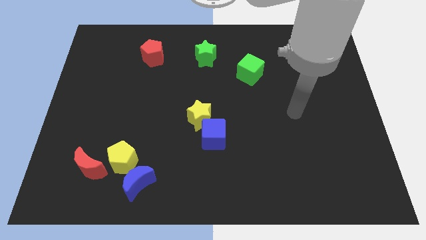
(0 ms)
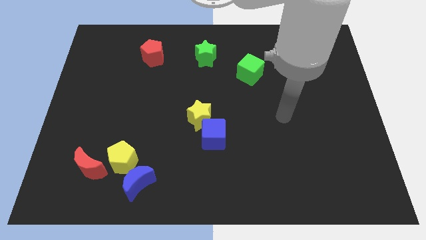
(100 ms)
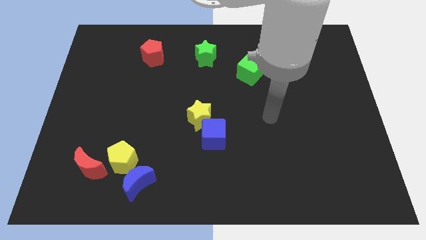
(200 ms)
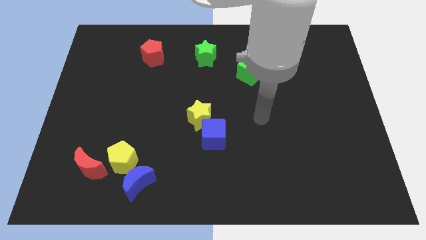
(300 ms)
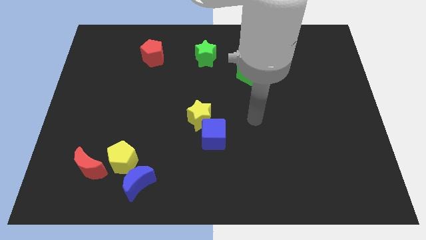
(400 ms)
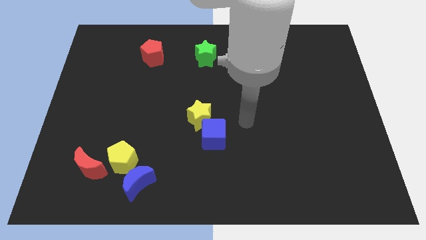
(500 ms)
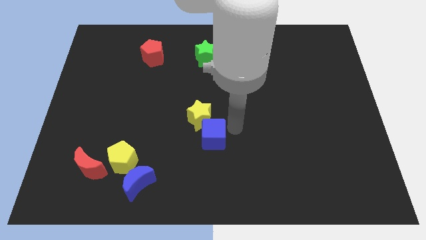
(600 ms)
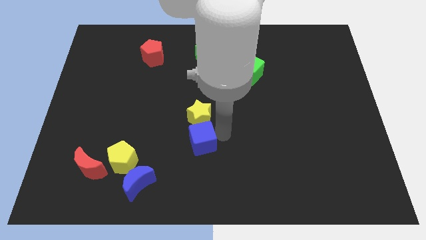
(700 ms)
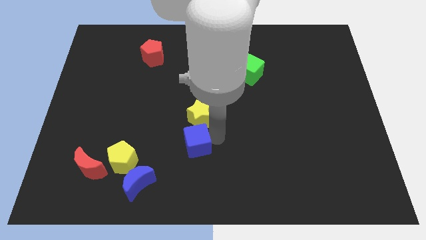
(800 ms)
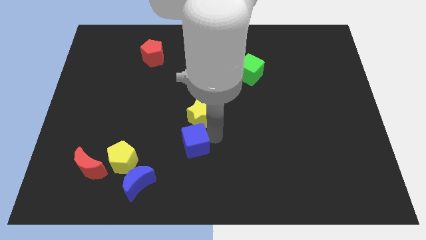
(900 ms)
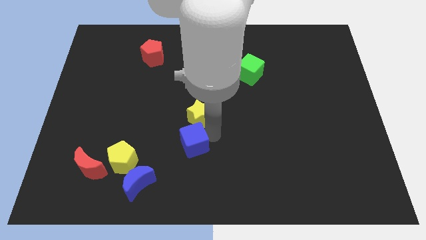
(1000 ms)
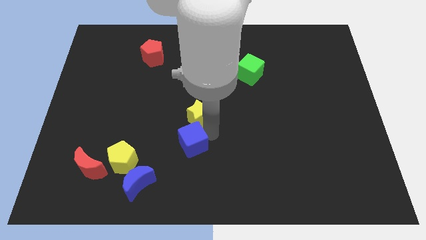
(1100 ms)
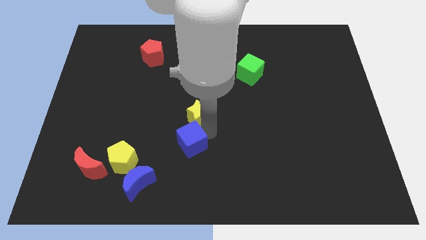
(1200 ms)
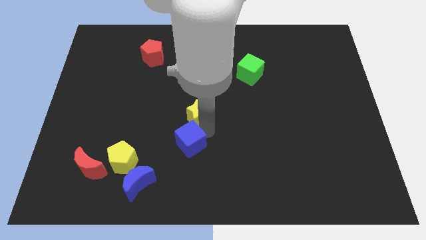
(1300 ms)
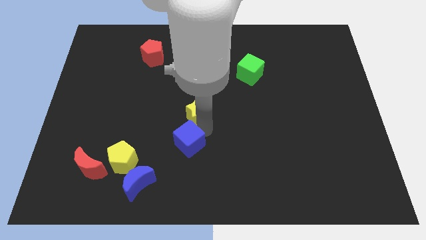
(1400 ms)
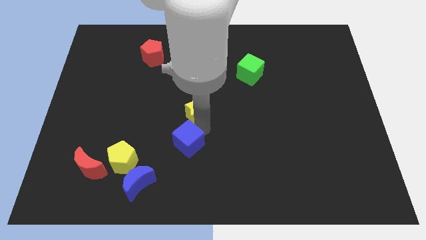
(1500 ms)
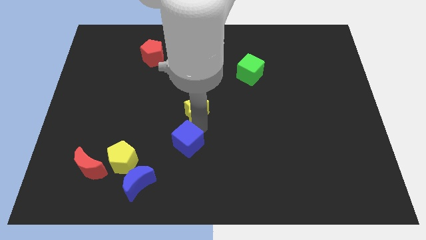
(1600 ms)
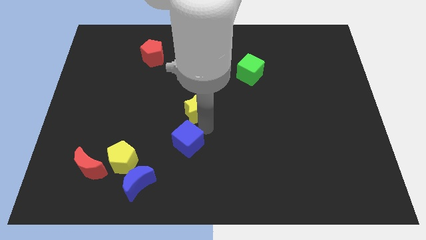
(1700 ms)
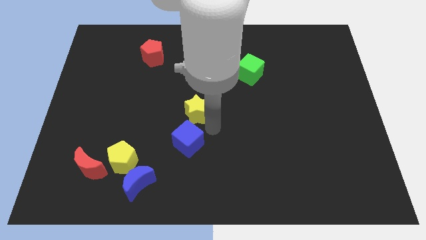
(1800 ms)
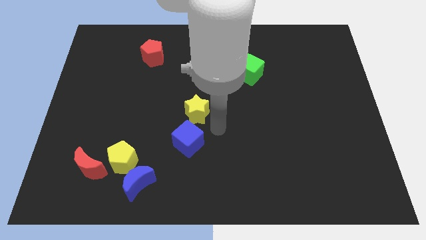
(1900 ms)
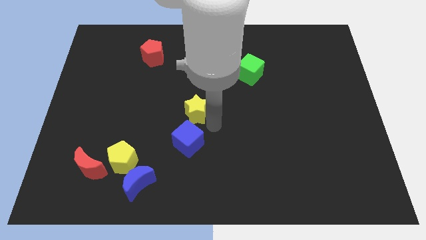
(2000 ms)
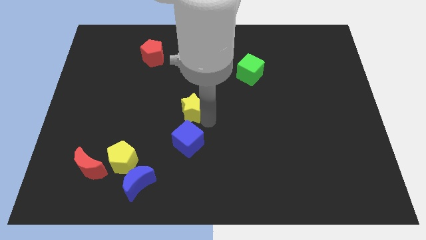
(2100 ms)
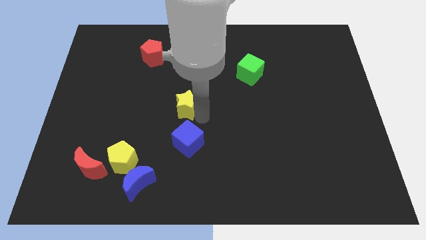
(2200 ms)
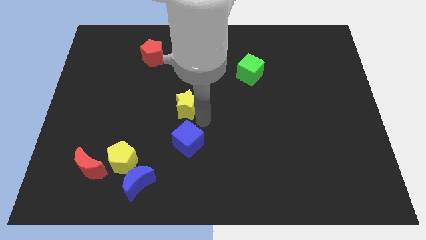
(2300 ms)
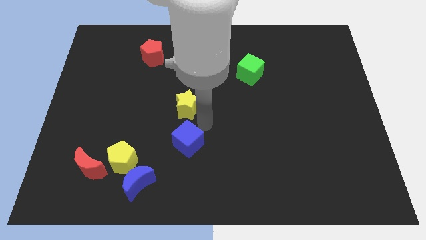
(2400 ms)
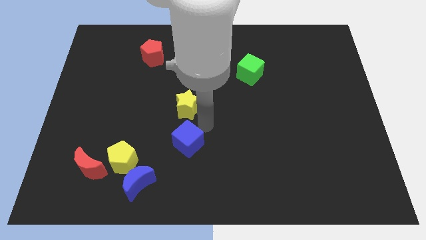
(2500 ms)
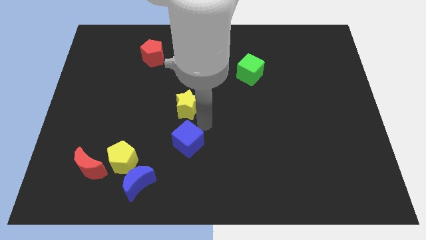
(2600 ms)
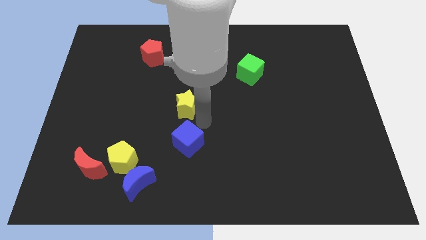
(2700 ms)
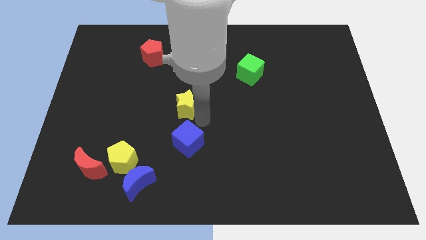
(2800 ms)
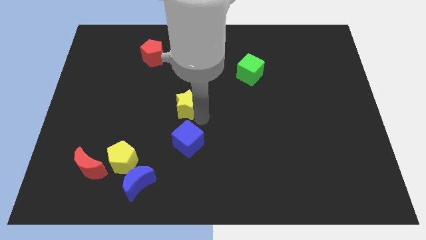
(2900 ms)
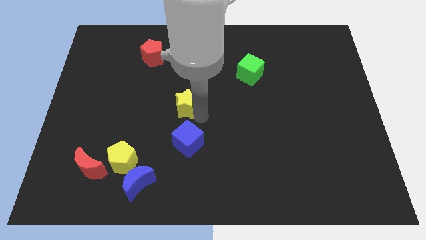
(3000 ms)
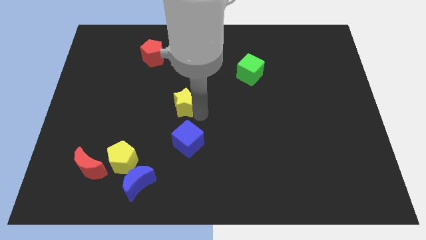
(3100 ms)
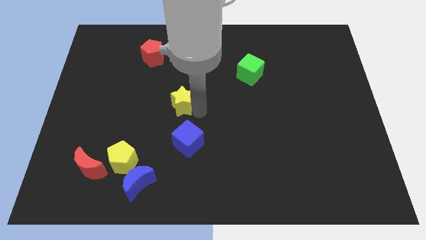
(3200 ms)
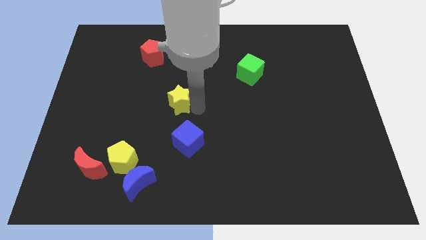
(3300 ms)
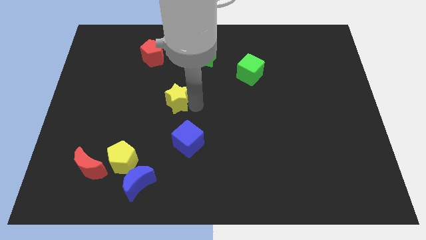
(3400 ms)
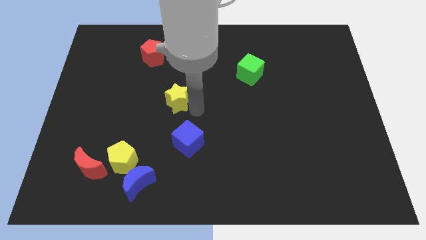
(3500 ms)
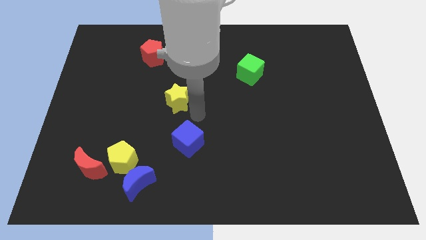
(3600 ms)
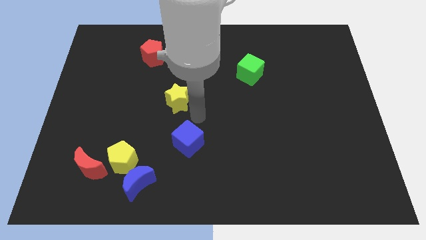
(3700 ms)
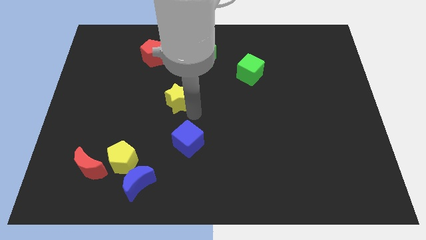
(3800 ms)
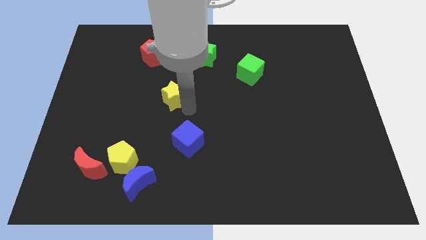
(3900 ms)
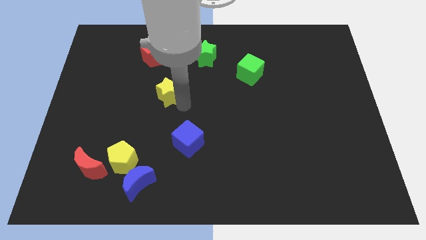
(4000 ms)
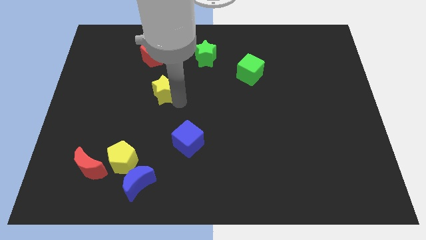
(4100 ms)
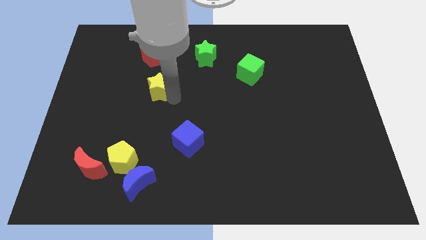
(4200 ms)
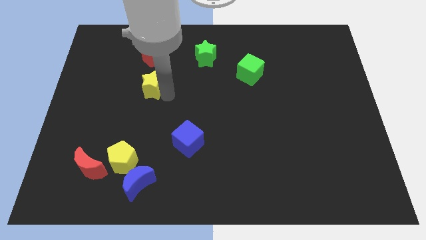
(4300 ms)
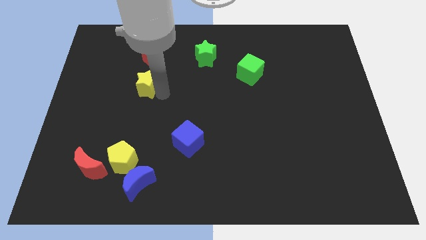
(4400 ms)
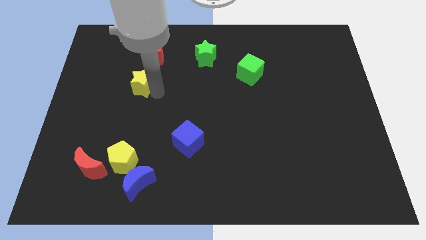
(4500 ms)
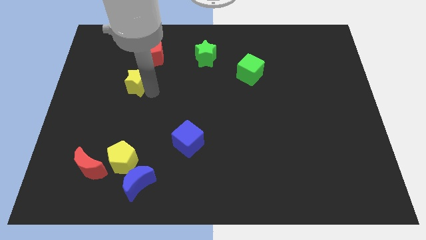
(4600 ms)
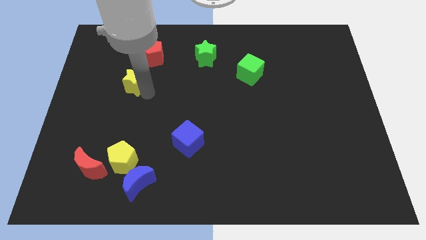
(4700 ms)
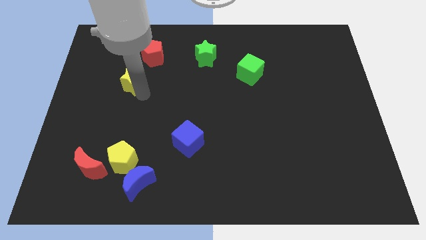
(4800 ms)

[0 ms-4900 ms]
put the yellow star to the bottom left of the red pentagon

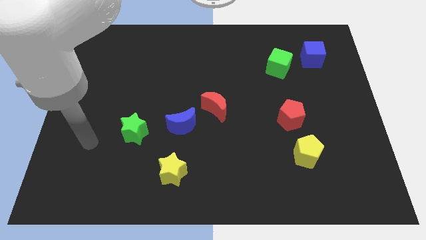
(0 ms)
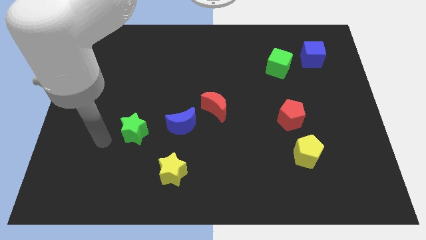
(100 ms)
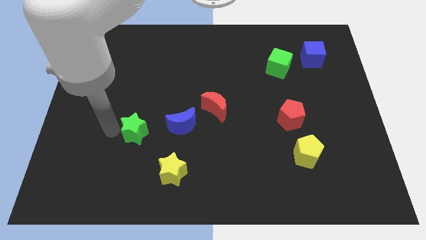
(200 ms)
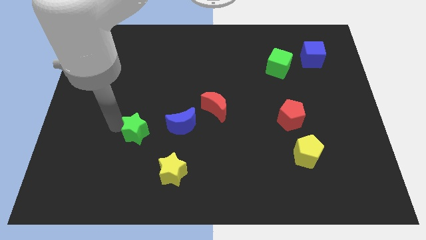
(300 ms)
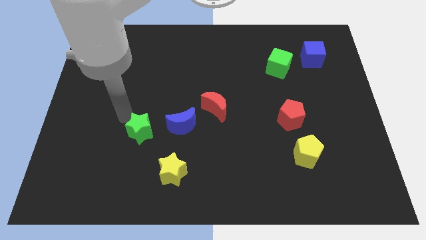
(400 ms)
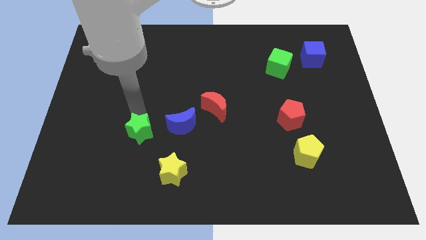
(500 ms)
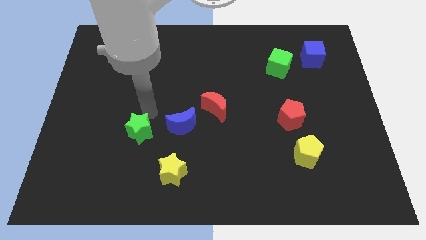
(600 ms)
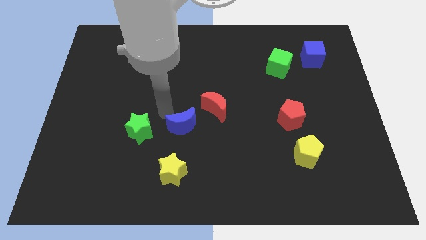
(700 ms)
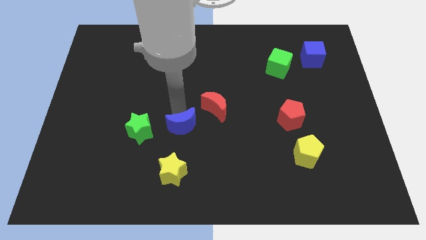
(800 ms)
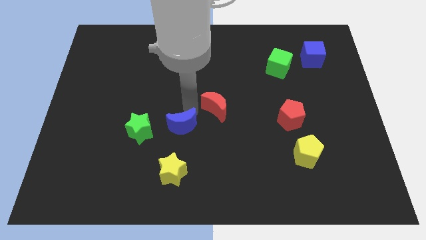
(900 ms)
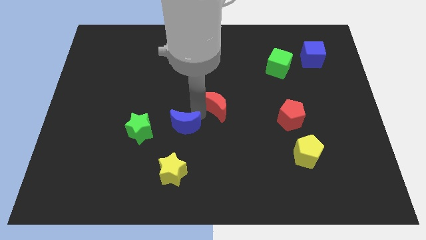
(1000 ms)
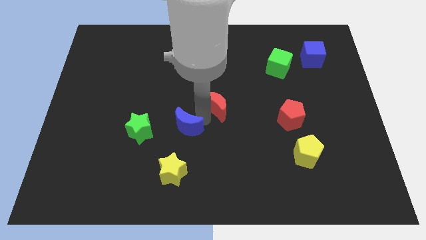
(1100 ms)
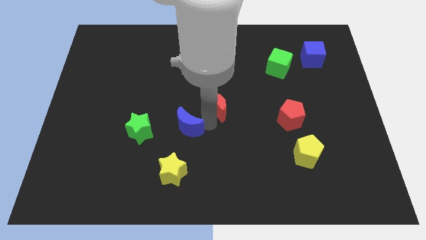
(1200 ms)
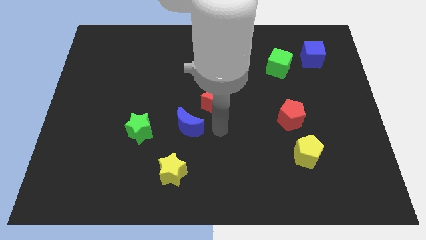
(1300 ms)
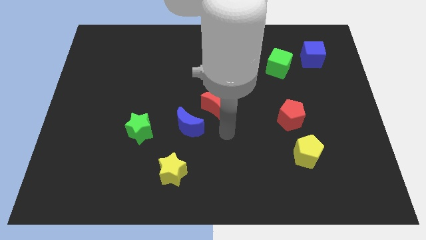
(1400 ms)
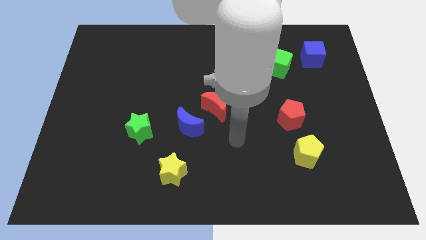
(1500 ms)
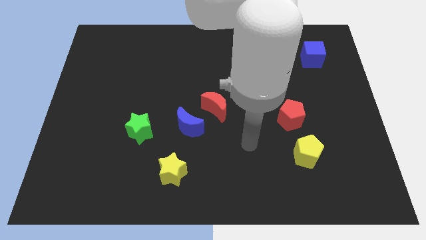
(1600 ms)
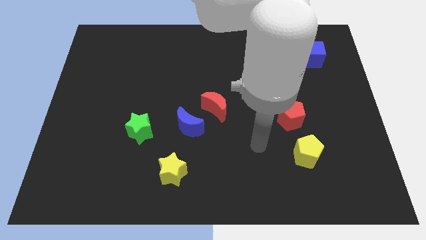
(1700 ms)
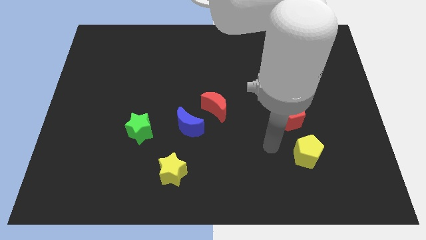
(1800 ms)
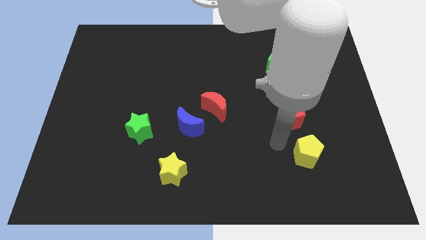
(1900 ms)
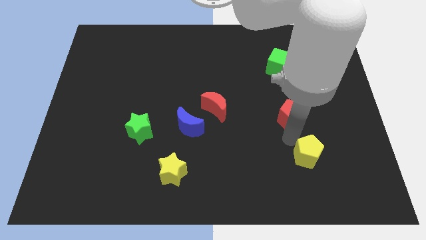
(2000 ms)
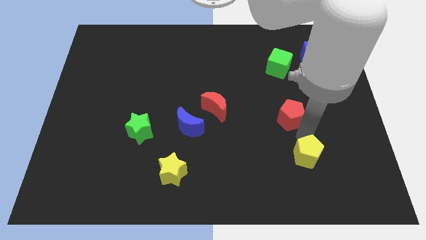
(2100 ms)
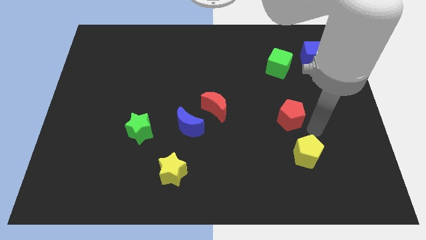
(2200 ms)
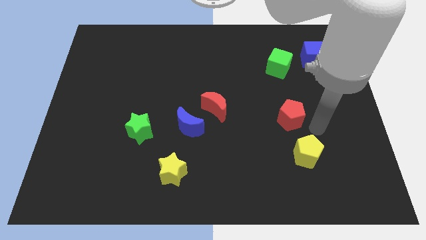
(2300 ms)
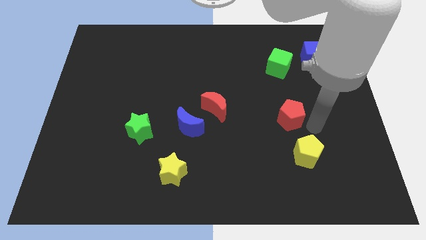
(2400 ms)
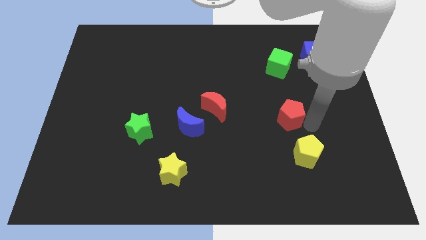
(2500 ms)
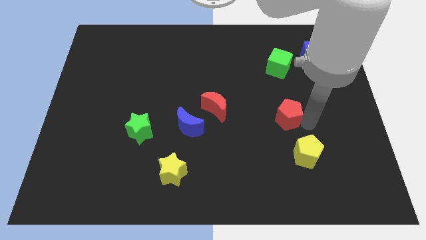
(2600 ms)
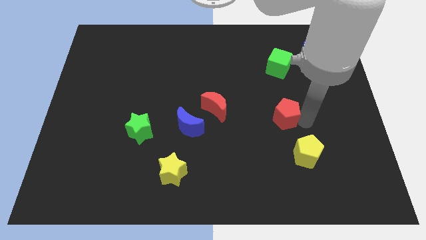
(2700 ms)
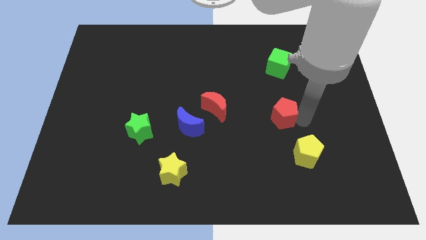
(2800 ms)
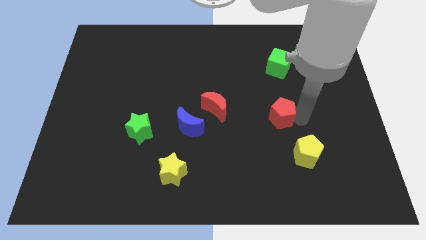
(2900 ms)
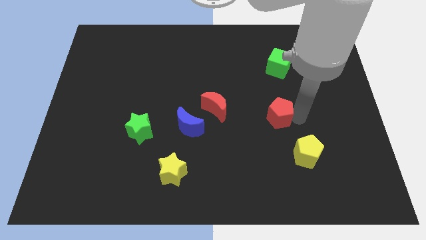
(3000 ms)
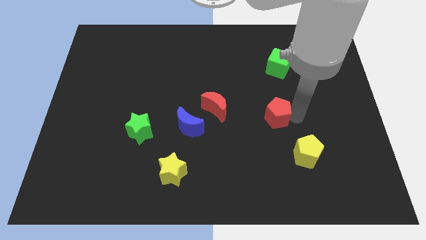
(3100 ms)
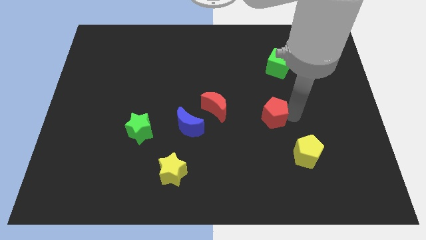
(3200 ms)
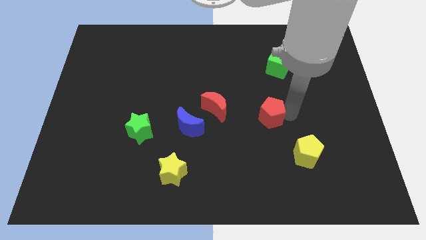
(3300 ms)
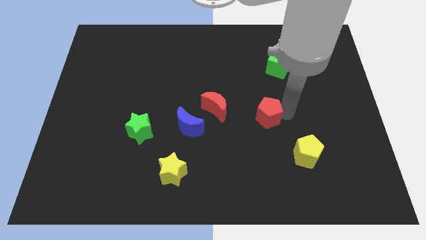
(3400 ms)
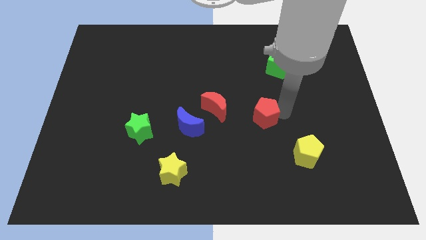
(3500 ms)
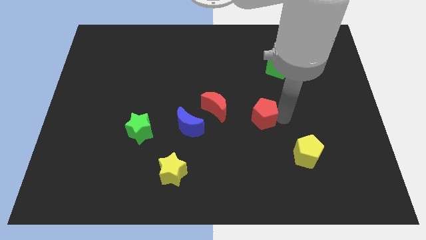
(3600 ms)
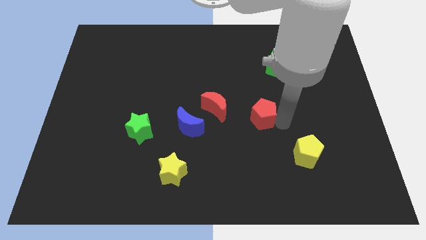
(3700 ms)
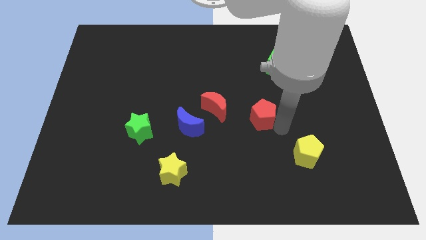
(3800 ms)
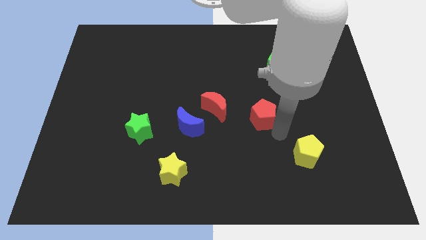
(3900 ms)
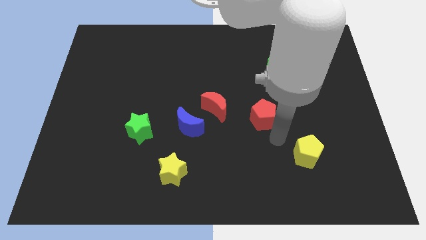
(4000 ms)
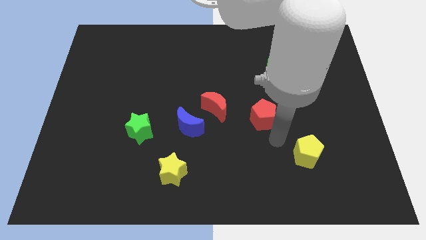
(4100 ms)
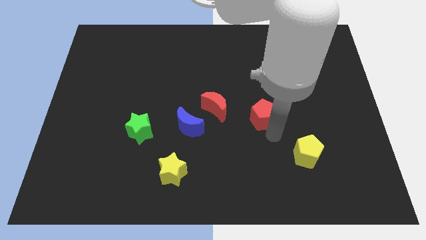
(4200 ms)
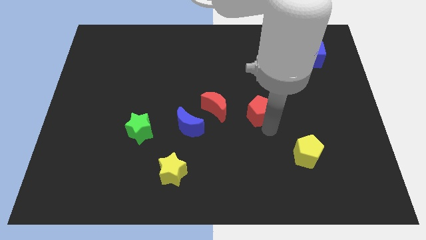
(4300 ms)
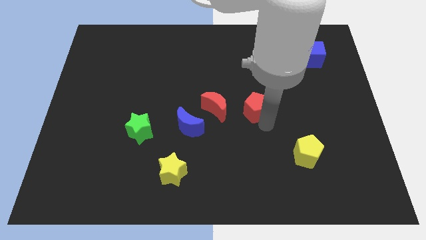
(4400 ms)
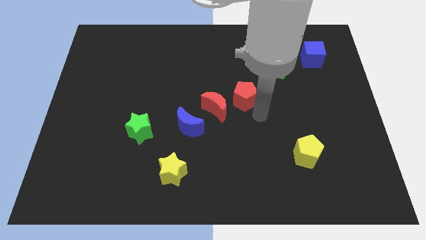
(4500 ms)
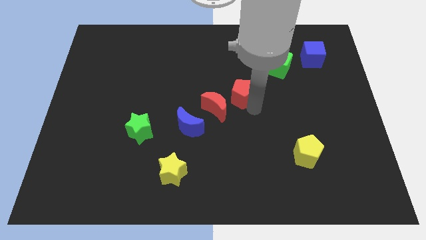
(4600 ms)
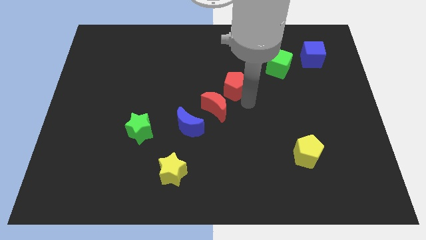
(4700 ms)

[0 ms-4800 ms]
push the red pentagon to the top side of the red moon
